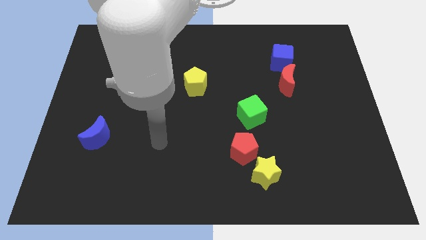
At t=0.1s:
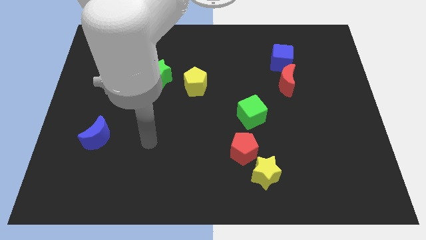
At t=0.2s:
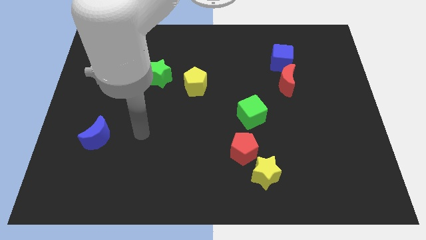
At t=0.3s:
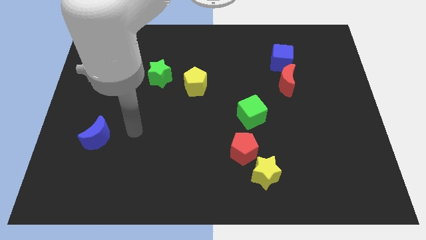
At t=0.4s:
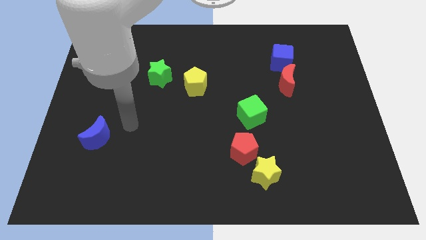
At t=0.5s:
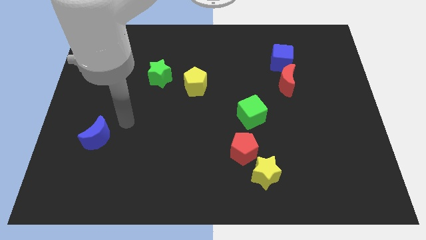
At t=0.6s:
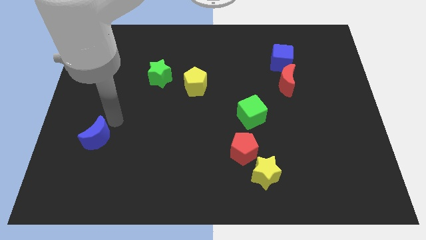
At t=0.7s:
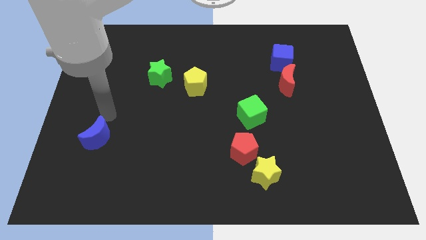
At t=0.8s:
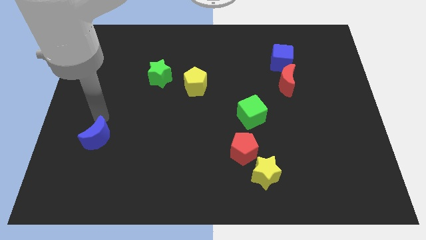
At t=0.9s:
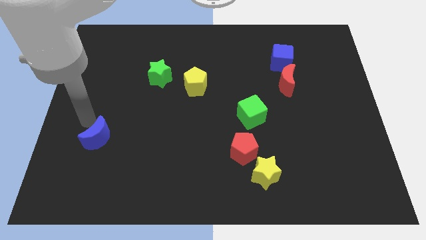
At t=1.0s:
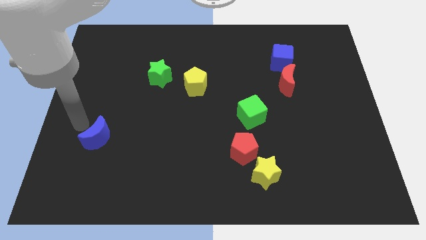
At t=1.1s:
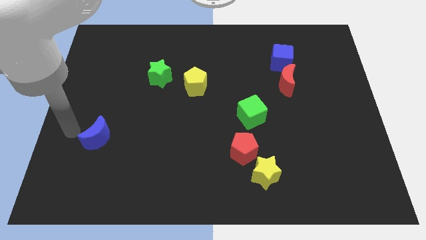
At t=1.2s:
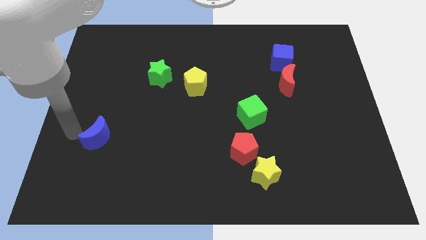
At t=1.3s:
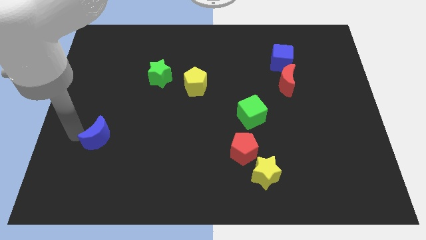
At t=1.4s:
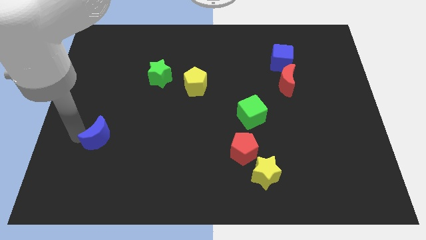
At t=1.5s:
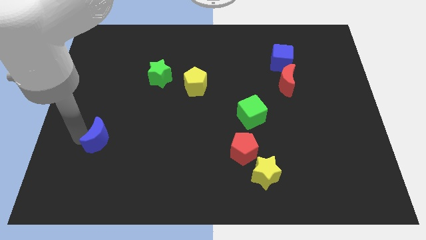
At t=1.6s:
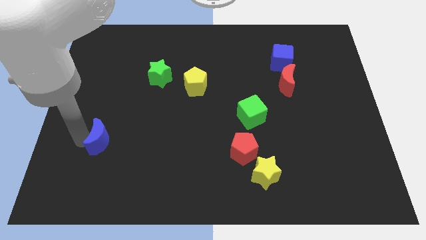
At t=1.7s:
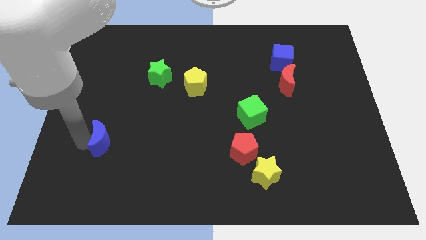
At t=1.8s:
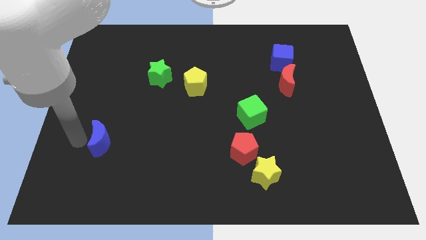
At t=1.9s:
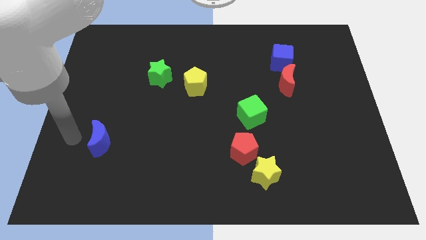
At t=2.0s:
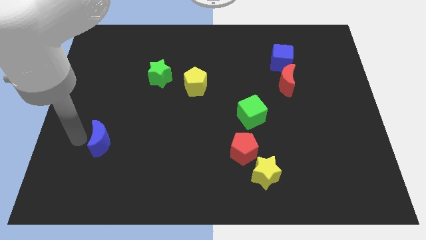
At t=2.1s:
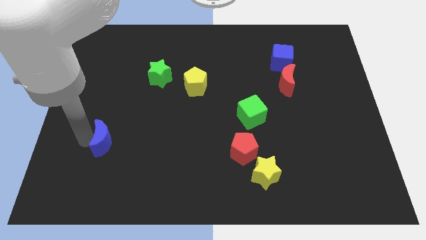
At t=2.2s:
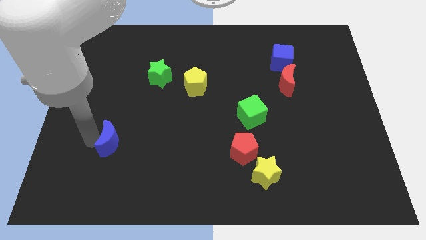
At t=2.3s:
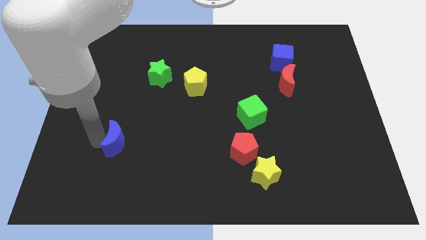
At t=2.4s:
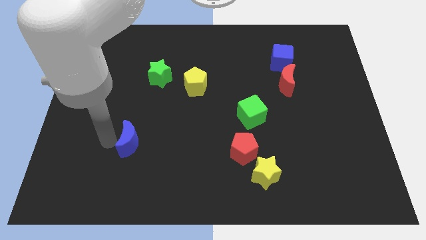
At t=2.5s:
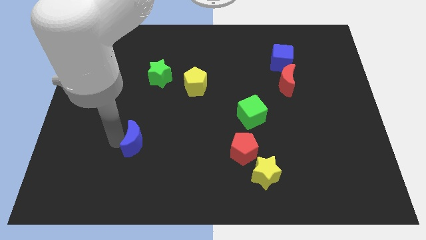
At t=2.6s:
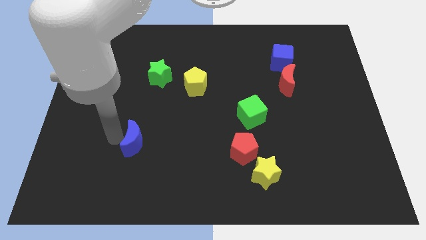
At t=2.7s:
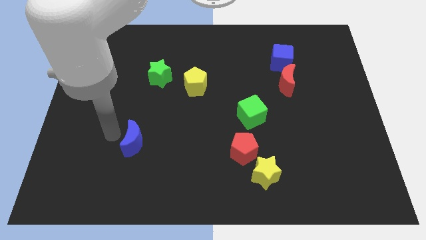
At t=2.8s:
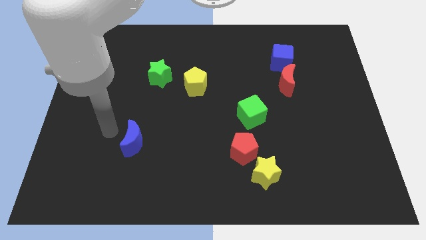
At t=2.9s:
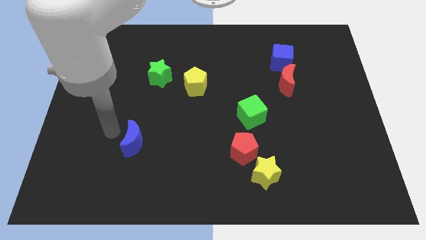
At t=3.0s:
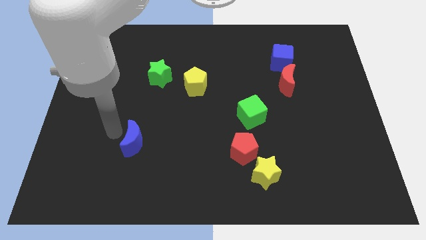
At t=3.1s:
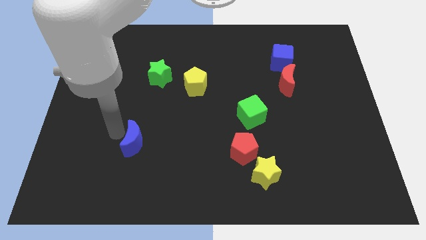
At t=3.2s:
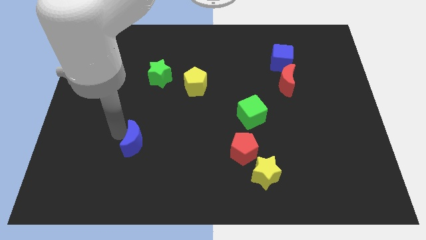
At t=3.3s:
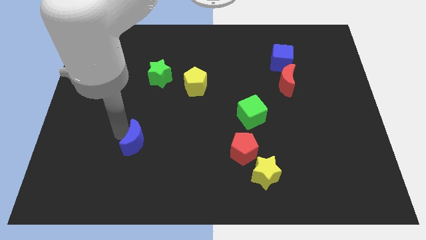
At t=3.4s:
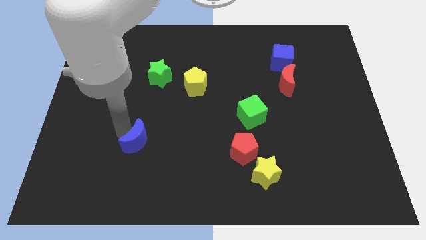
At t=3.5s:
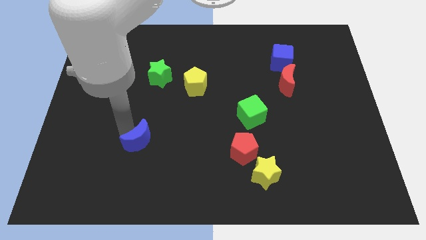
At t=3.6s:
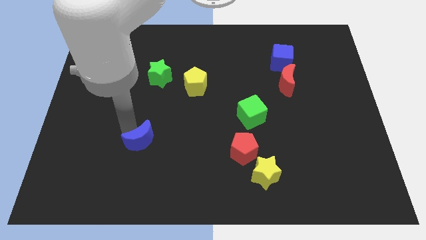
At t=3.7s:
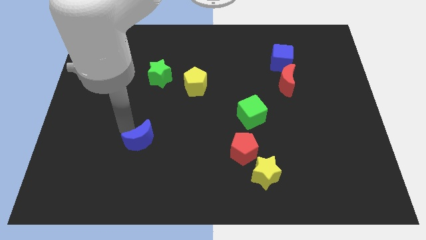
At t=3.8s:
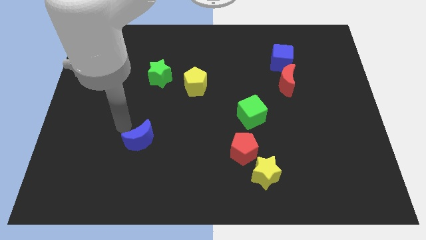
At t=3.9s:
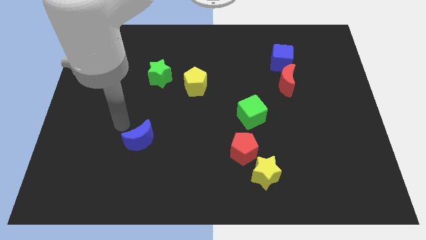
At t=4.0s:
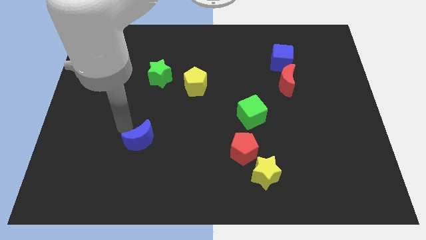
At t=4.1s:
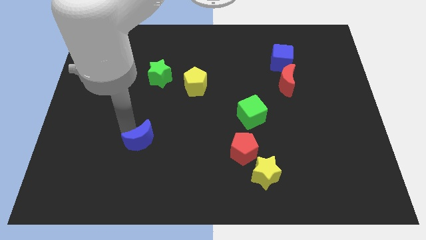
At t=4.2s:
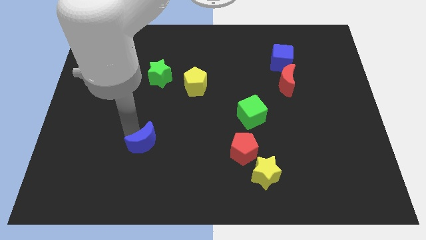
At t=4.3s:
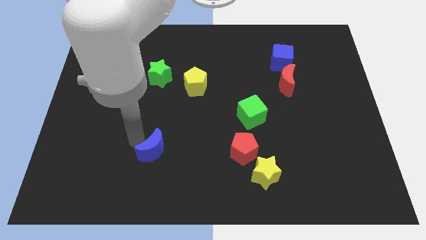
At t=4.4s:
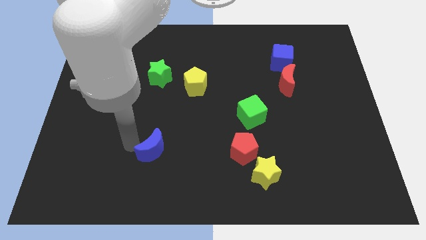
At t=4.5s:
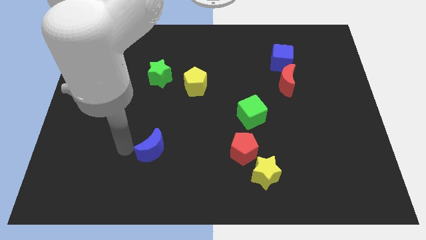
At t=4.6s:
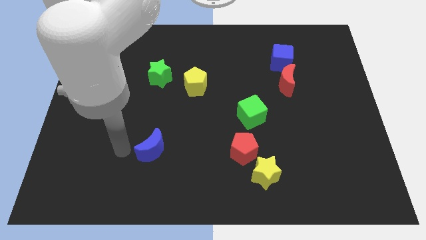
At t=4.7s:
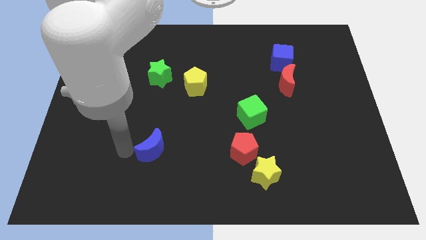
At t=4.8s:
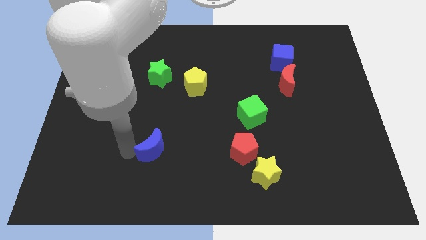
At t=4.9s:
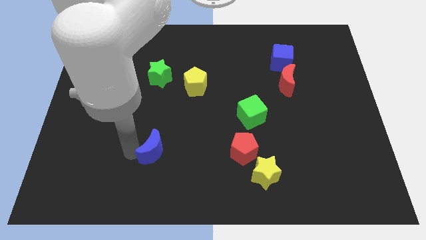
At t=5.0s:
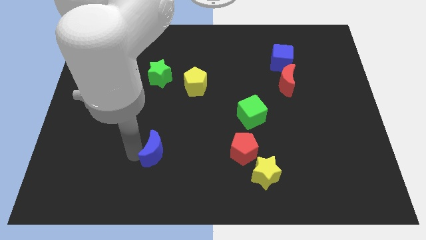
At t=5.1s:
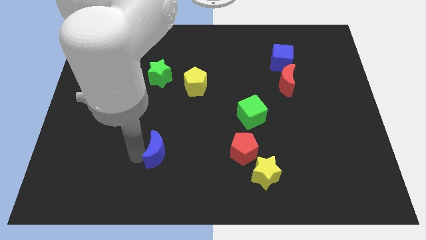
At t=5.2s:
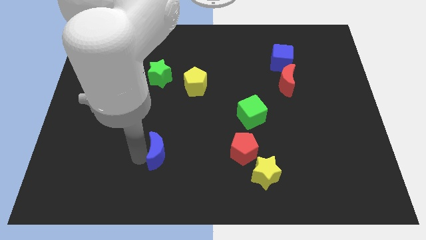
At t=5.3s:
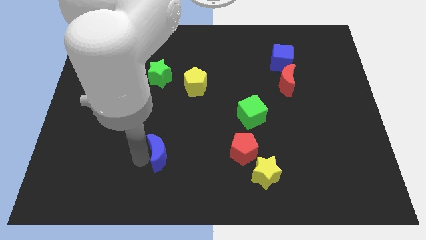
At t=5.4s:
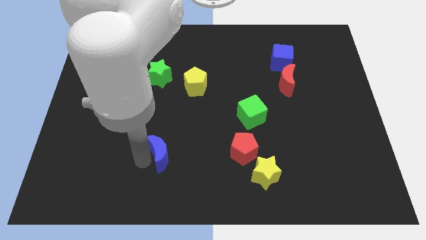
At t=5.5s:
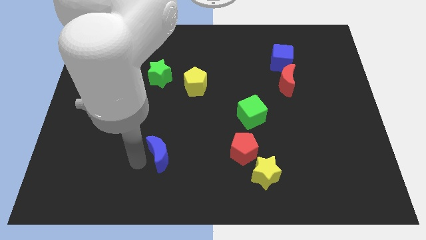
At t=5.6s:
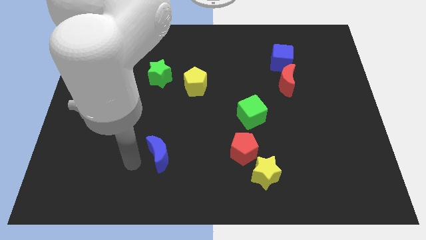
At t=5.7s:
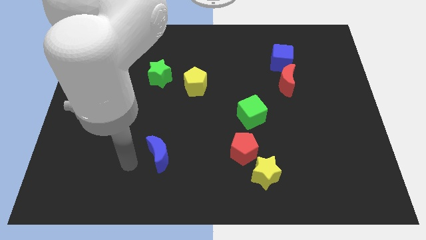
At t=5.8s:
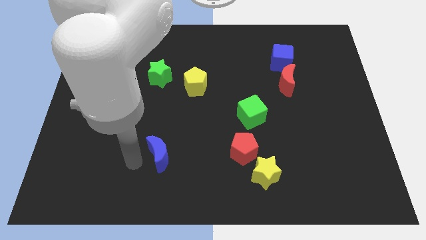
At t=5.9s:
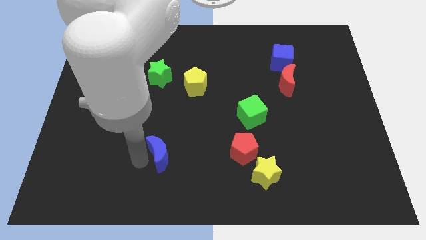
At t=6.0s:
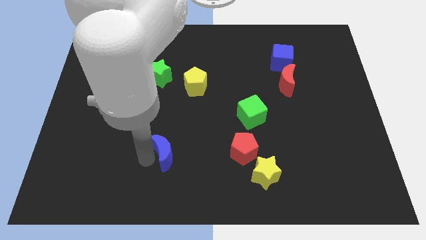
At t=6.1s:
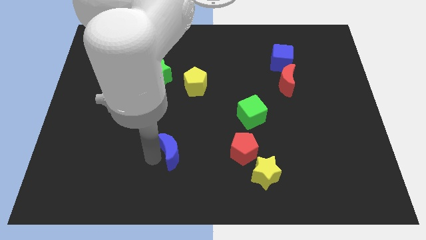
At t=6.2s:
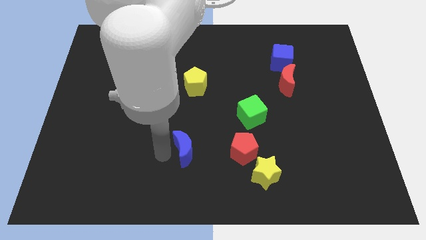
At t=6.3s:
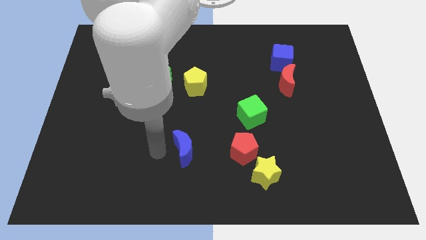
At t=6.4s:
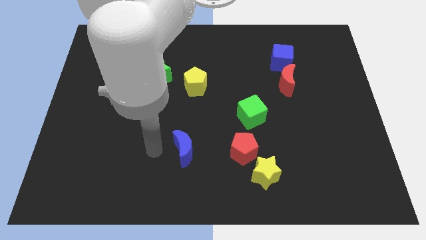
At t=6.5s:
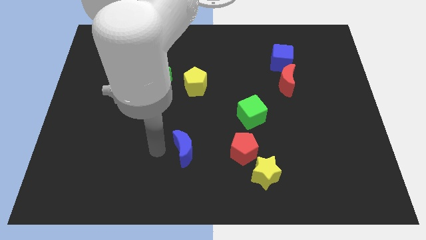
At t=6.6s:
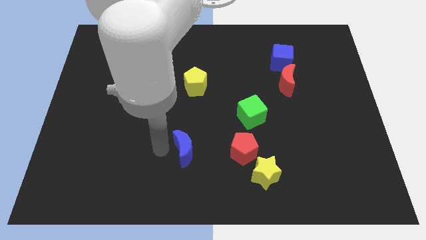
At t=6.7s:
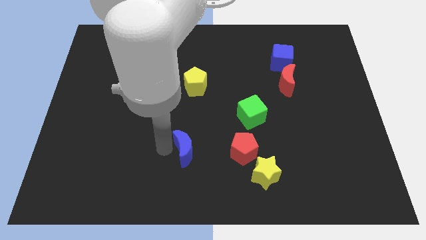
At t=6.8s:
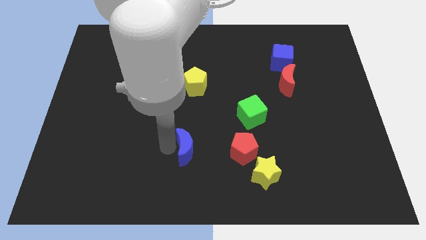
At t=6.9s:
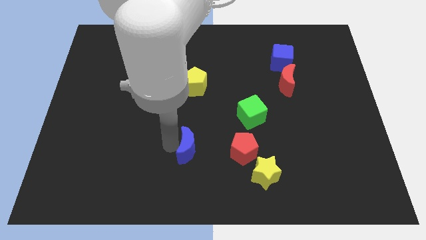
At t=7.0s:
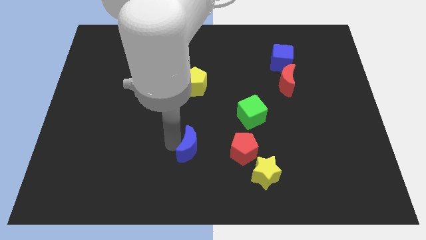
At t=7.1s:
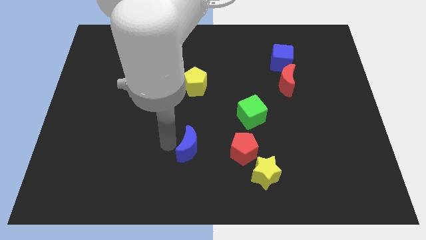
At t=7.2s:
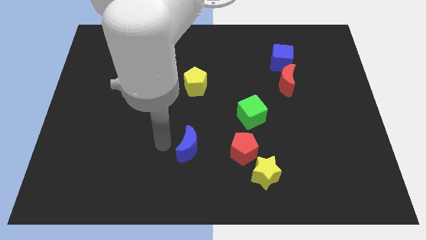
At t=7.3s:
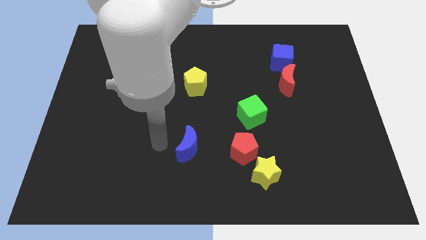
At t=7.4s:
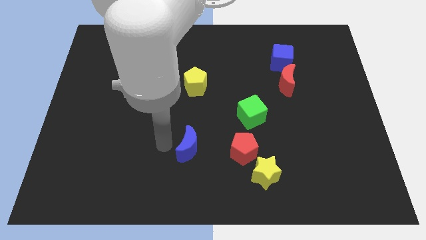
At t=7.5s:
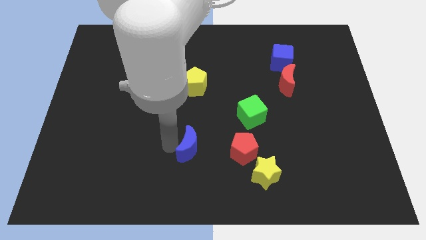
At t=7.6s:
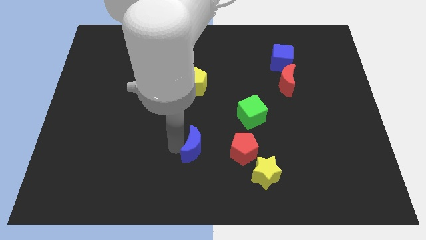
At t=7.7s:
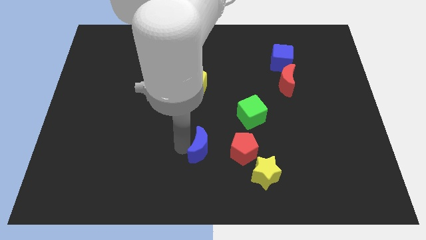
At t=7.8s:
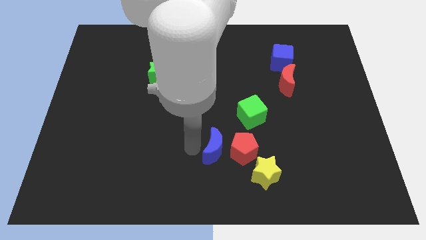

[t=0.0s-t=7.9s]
push the blue moon next to the red pentagon
